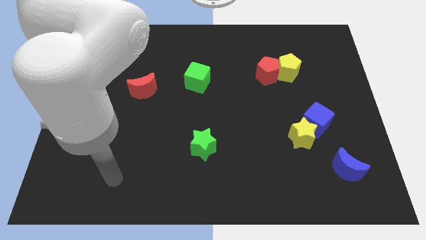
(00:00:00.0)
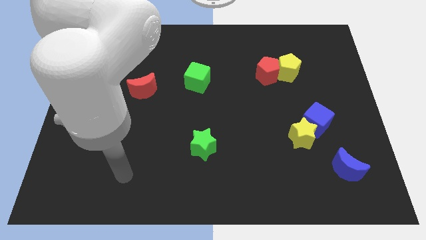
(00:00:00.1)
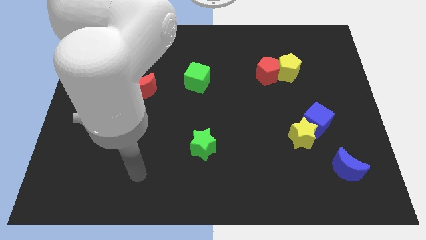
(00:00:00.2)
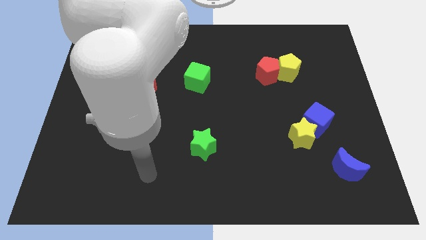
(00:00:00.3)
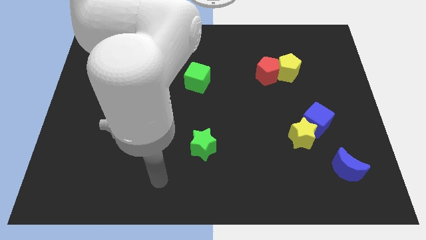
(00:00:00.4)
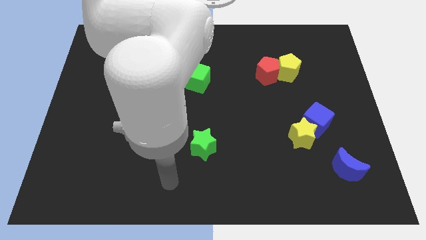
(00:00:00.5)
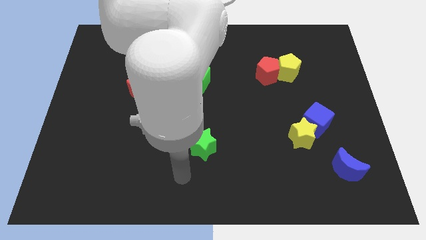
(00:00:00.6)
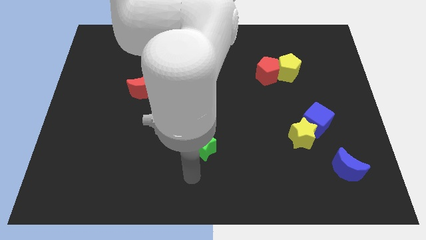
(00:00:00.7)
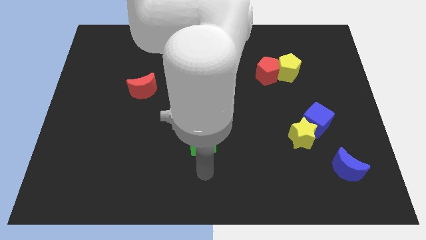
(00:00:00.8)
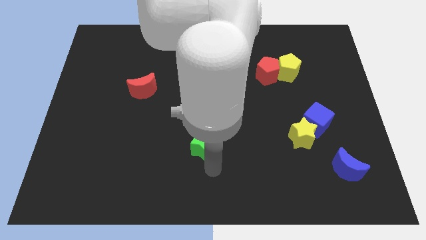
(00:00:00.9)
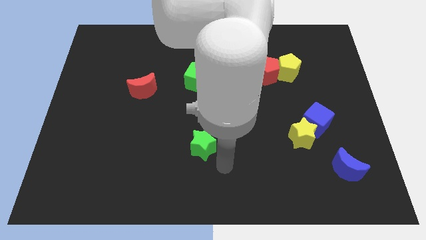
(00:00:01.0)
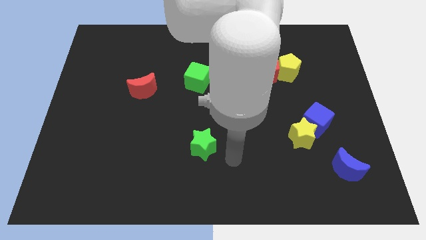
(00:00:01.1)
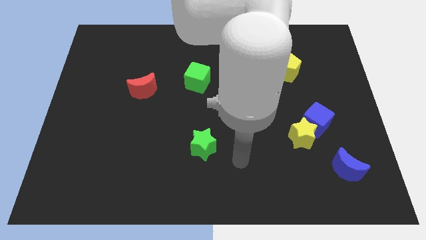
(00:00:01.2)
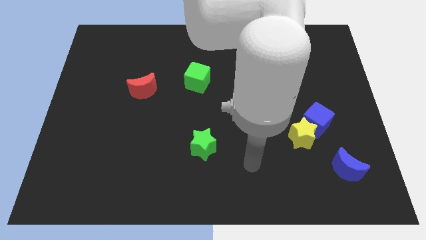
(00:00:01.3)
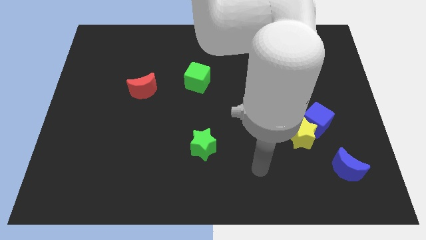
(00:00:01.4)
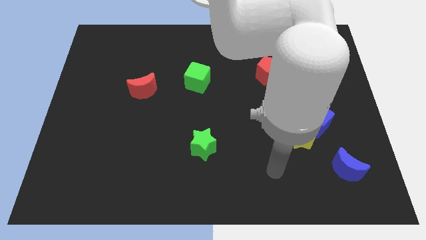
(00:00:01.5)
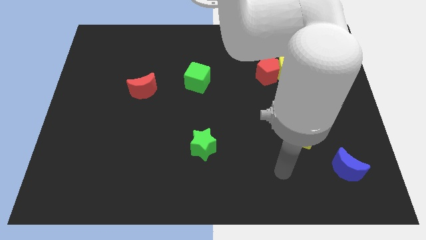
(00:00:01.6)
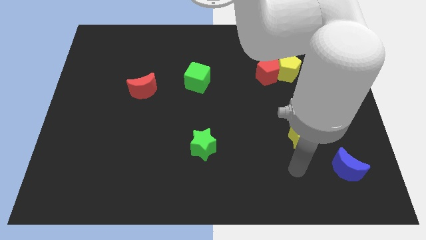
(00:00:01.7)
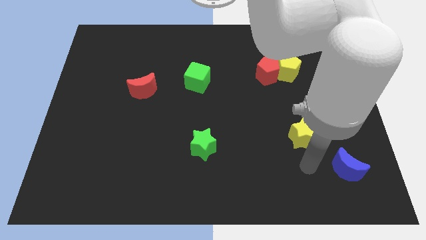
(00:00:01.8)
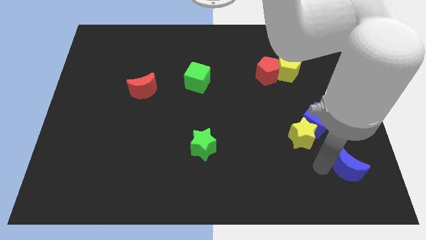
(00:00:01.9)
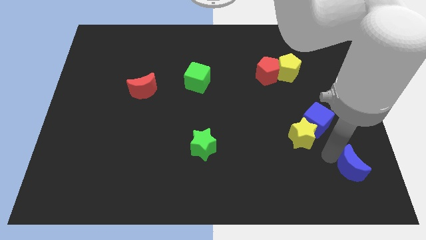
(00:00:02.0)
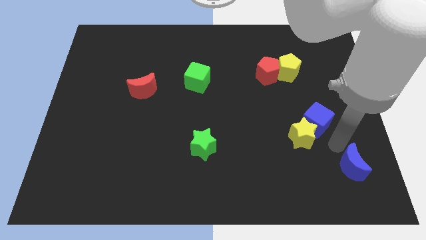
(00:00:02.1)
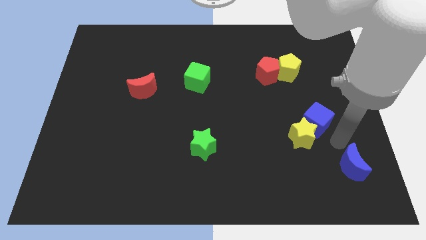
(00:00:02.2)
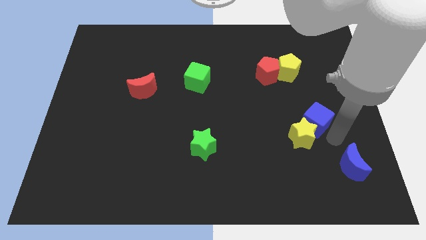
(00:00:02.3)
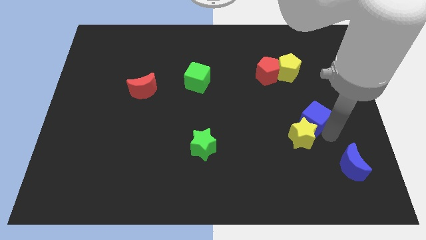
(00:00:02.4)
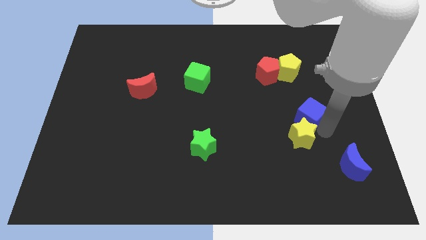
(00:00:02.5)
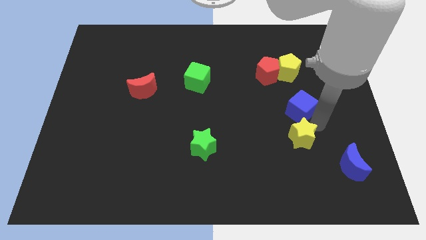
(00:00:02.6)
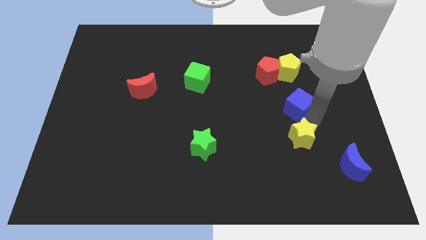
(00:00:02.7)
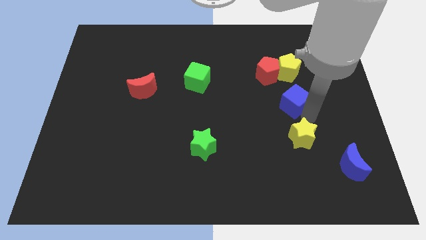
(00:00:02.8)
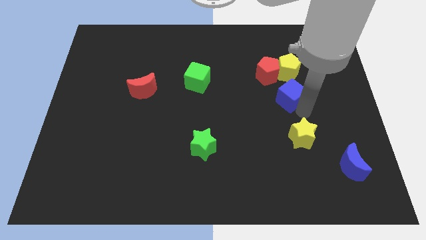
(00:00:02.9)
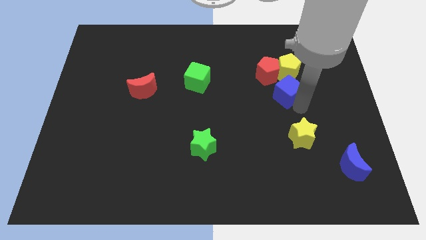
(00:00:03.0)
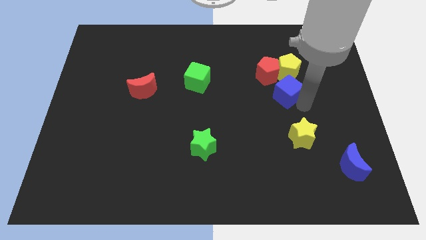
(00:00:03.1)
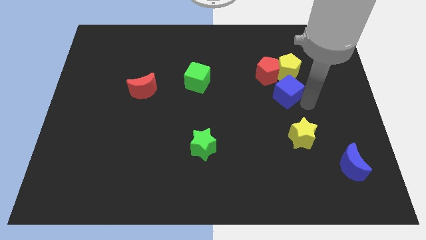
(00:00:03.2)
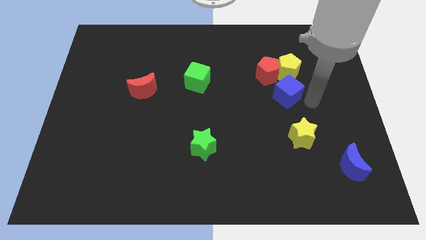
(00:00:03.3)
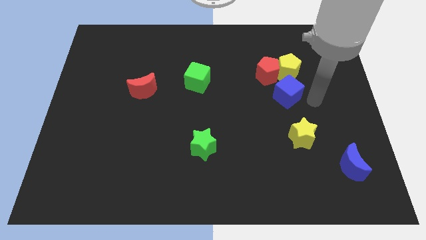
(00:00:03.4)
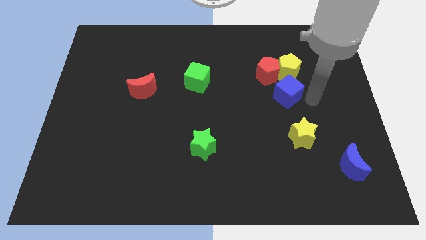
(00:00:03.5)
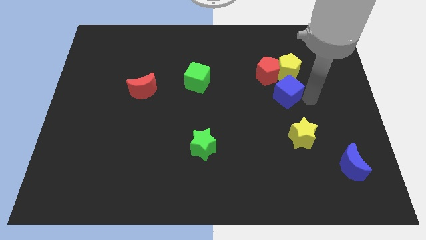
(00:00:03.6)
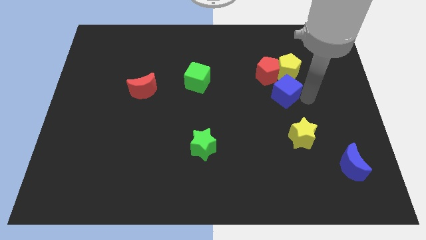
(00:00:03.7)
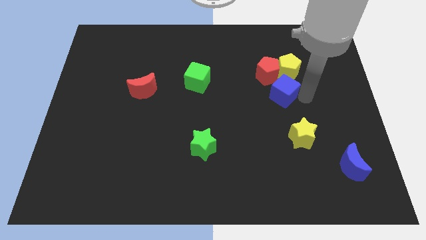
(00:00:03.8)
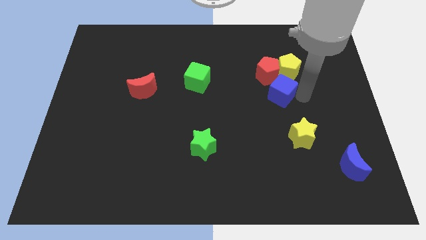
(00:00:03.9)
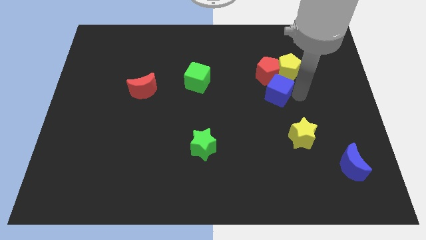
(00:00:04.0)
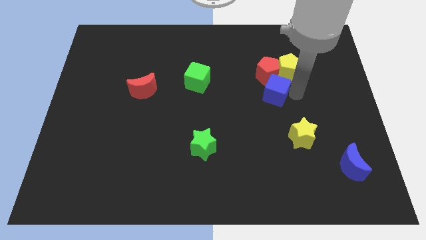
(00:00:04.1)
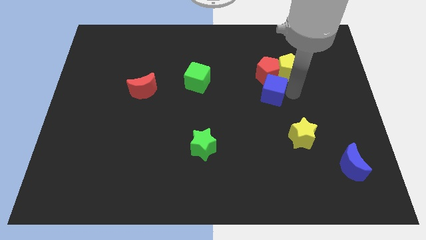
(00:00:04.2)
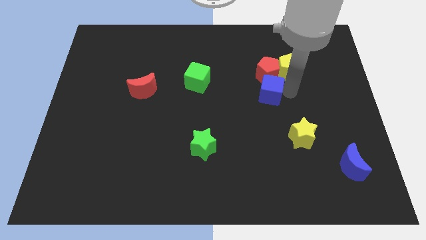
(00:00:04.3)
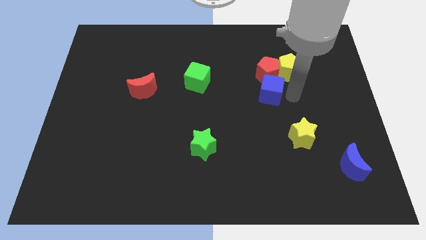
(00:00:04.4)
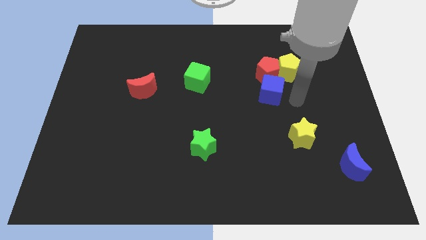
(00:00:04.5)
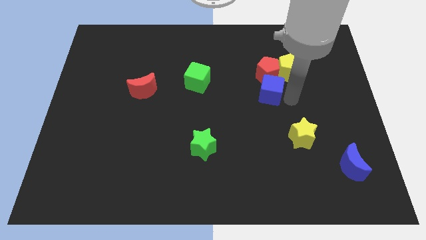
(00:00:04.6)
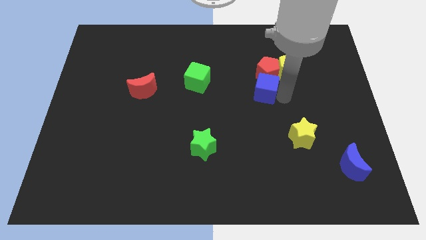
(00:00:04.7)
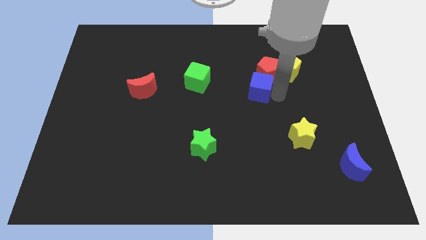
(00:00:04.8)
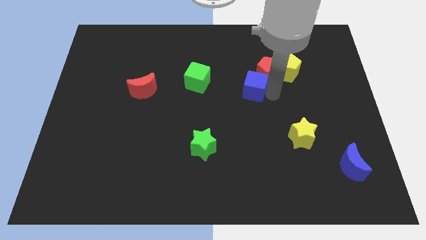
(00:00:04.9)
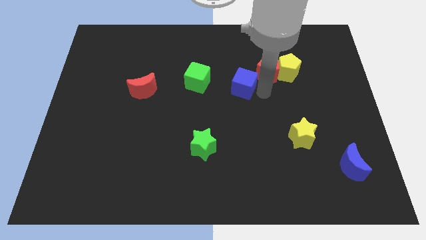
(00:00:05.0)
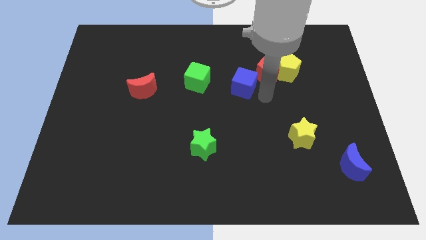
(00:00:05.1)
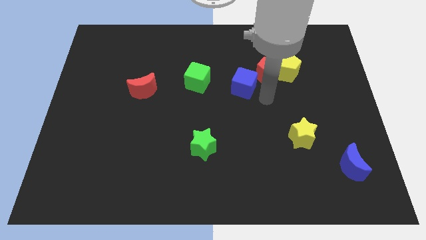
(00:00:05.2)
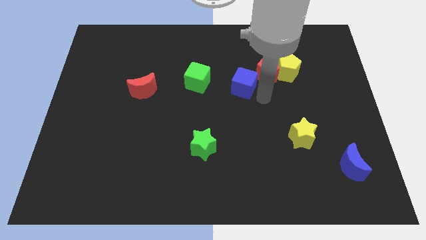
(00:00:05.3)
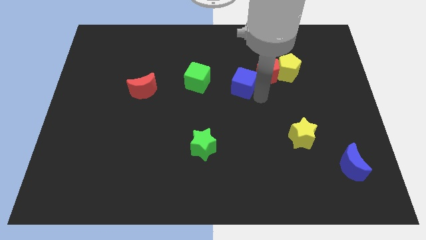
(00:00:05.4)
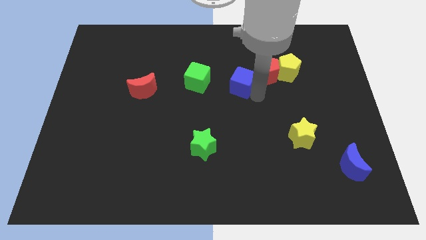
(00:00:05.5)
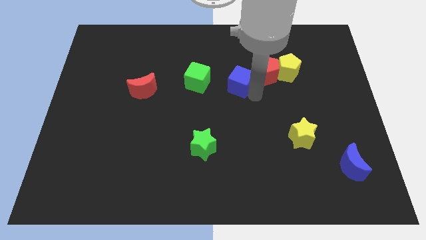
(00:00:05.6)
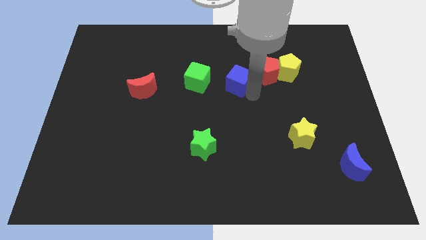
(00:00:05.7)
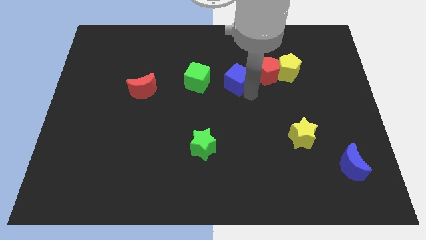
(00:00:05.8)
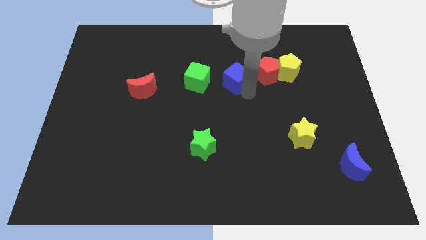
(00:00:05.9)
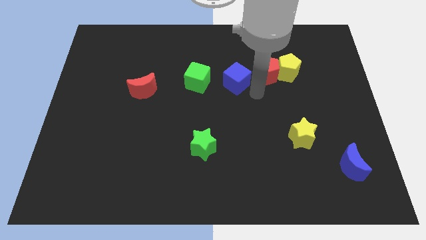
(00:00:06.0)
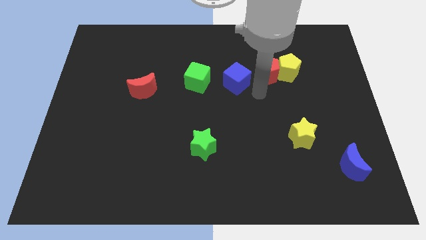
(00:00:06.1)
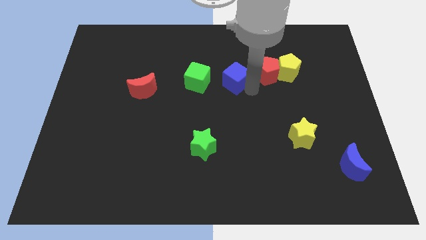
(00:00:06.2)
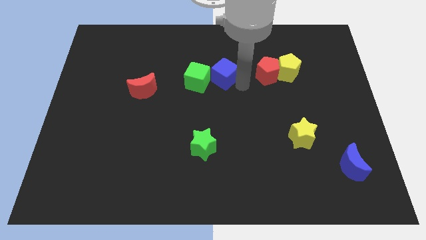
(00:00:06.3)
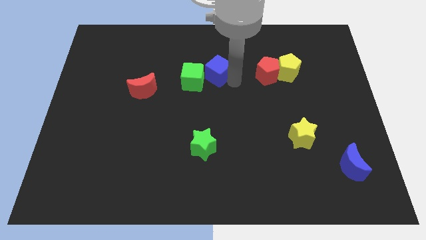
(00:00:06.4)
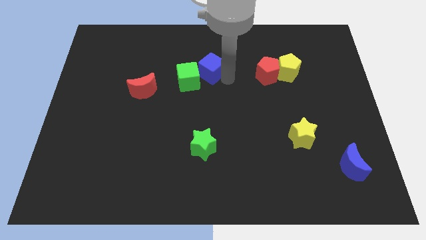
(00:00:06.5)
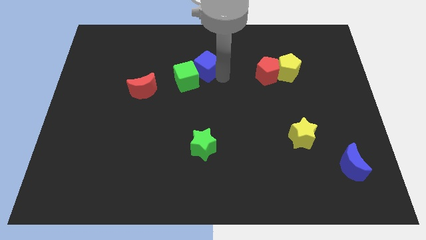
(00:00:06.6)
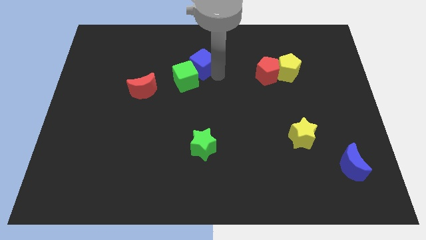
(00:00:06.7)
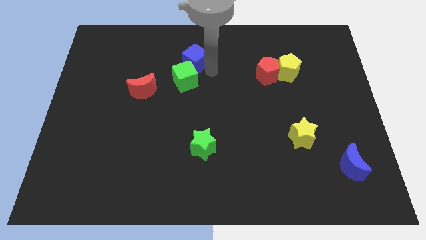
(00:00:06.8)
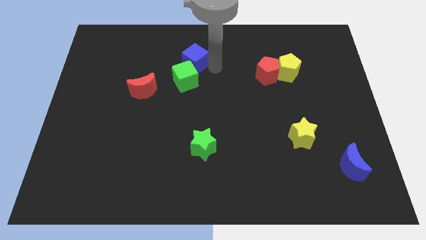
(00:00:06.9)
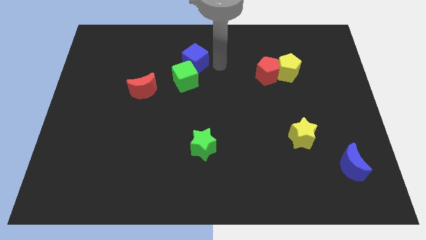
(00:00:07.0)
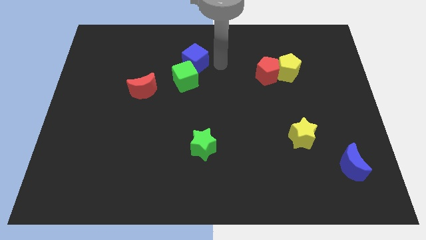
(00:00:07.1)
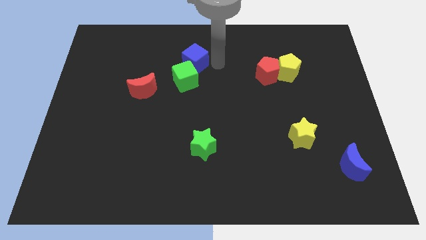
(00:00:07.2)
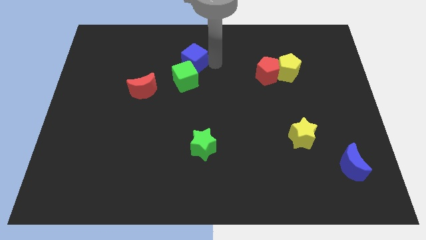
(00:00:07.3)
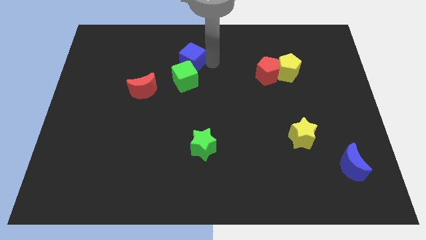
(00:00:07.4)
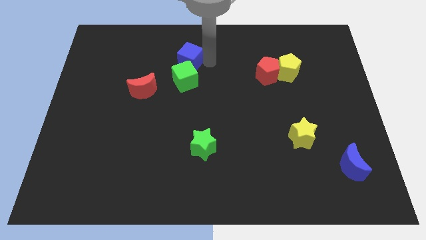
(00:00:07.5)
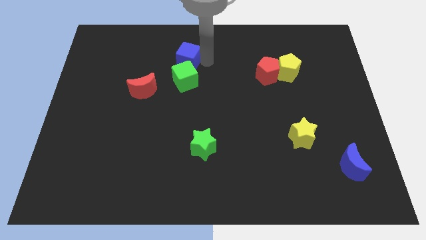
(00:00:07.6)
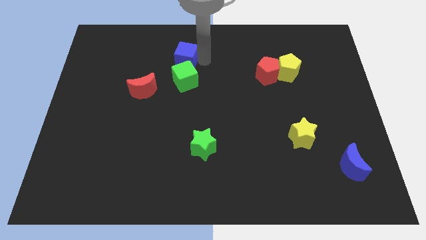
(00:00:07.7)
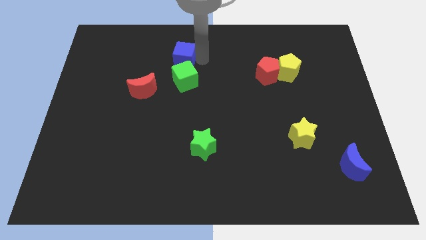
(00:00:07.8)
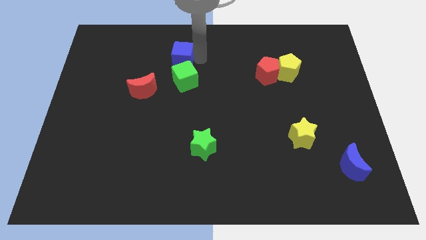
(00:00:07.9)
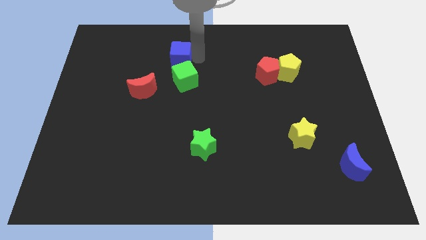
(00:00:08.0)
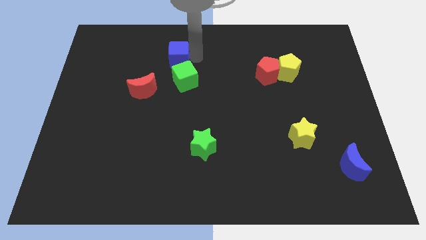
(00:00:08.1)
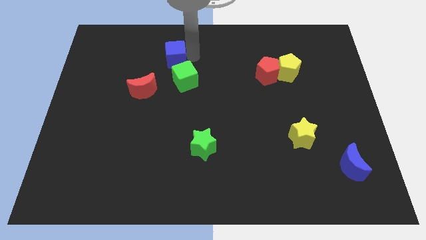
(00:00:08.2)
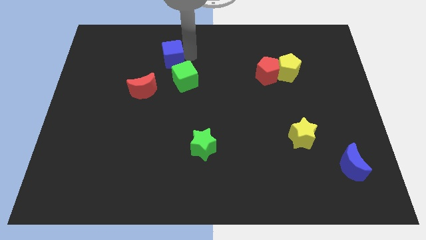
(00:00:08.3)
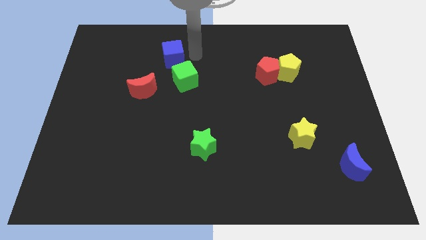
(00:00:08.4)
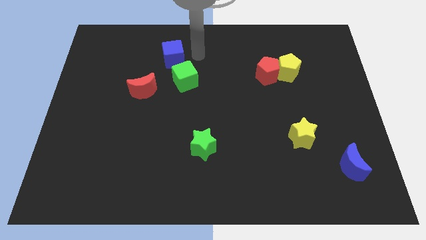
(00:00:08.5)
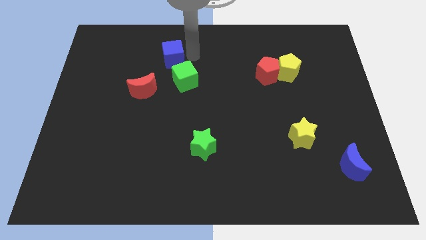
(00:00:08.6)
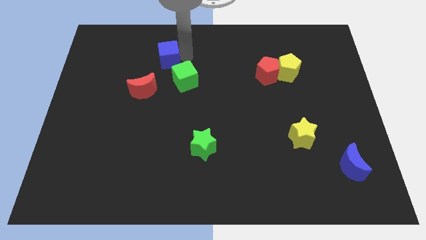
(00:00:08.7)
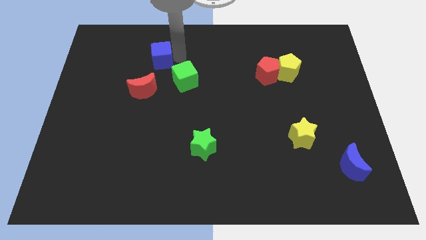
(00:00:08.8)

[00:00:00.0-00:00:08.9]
push the blue cube to the top side of the red moon
